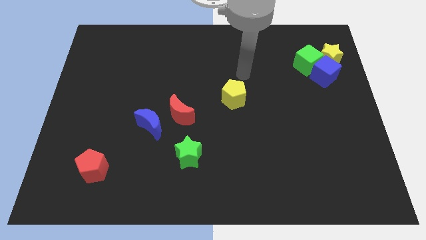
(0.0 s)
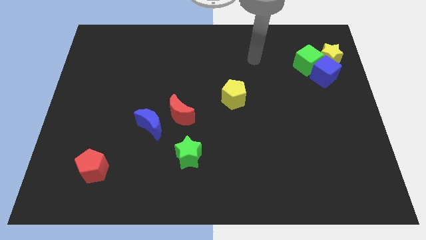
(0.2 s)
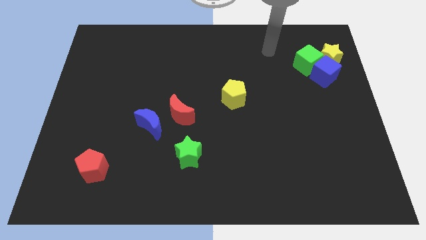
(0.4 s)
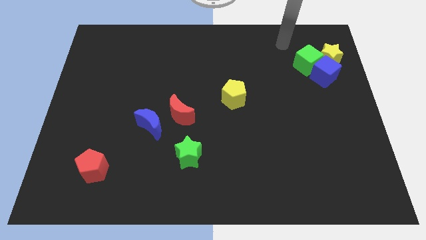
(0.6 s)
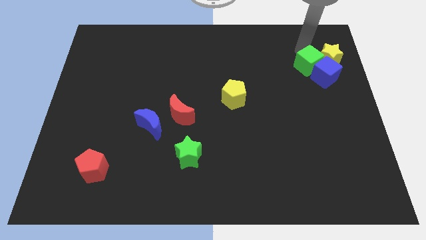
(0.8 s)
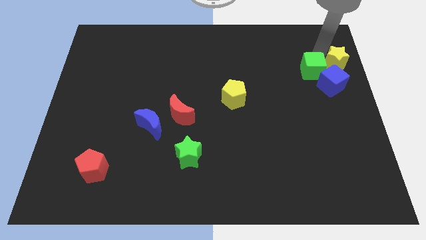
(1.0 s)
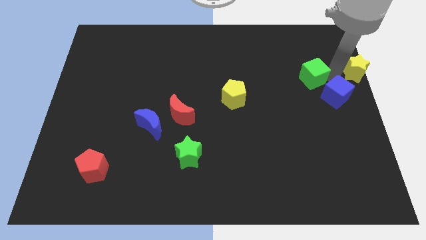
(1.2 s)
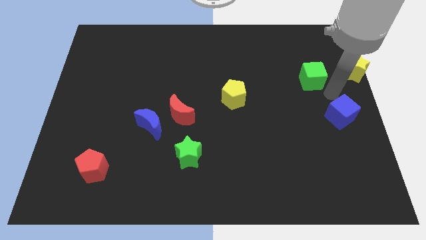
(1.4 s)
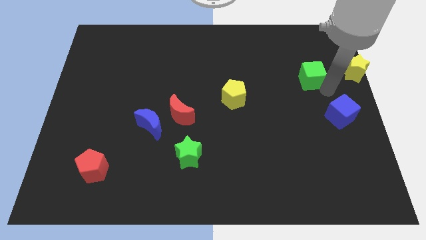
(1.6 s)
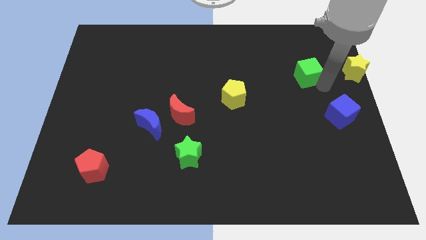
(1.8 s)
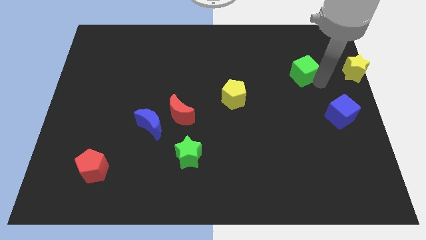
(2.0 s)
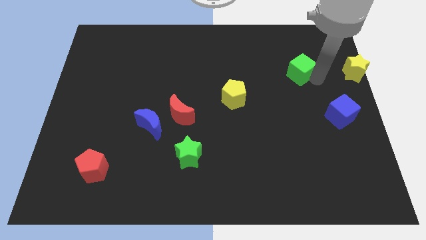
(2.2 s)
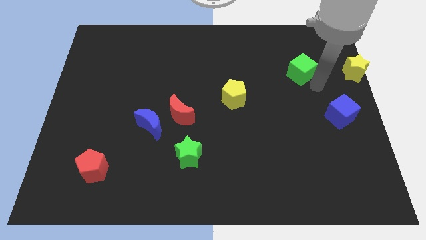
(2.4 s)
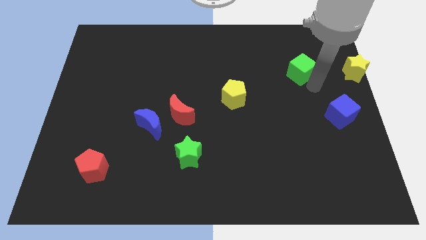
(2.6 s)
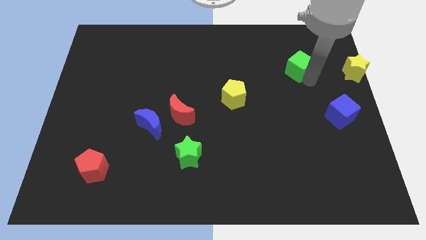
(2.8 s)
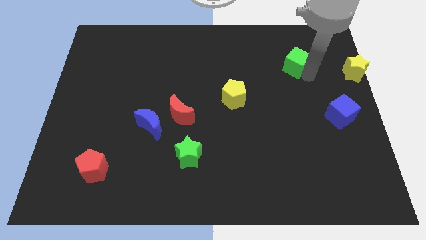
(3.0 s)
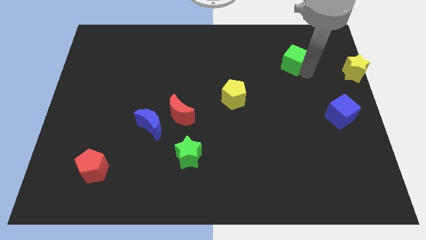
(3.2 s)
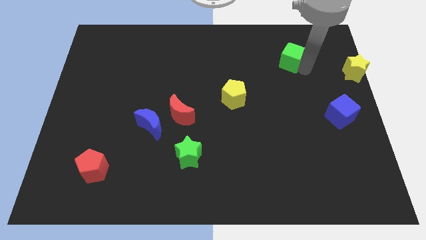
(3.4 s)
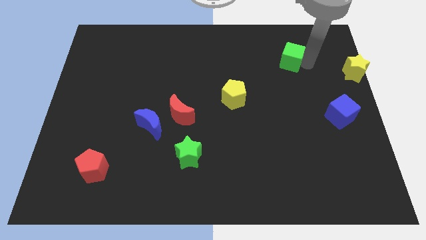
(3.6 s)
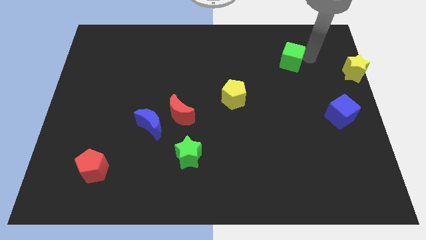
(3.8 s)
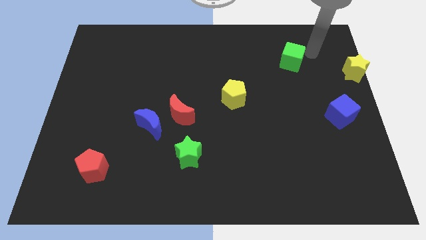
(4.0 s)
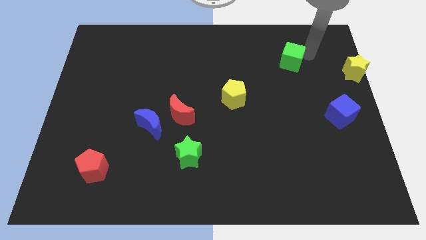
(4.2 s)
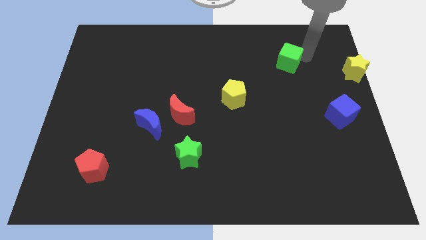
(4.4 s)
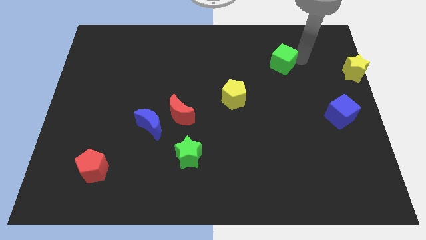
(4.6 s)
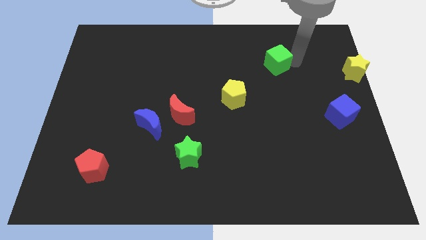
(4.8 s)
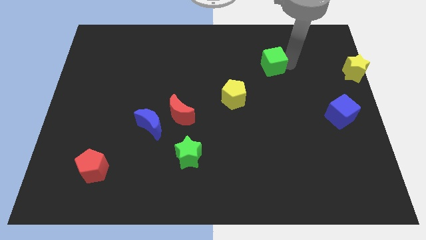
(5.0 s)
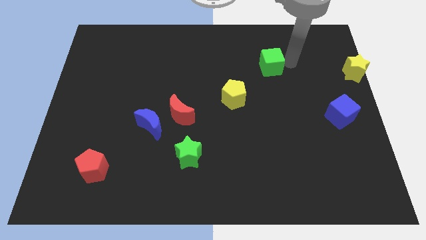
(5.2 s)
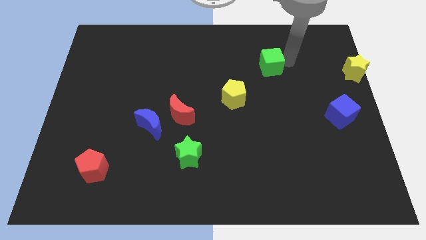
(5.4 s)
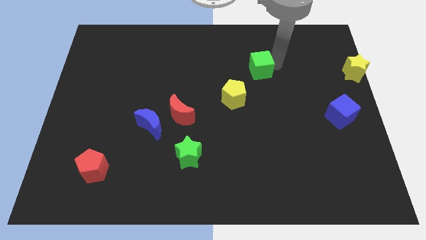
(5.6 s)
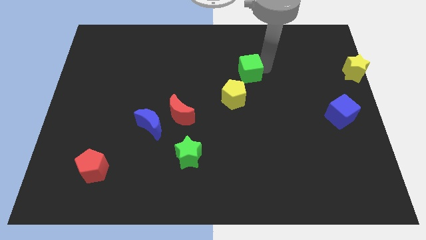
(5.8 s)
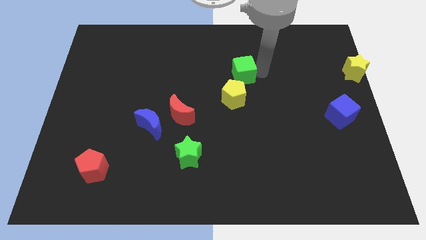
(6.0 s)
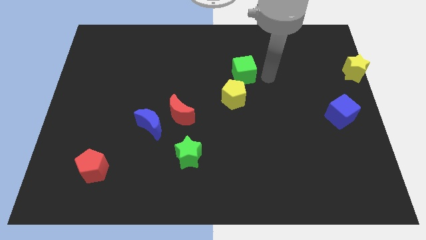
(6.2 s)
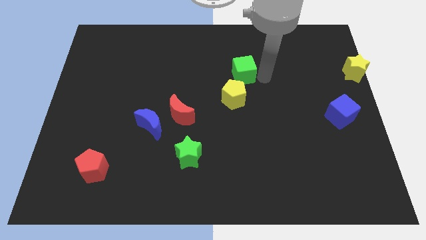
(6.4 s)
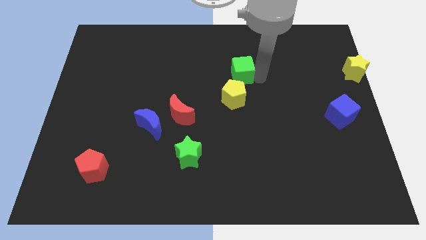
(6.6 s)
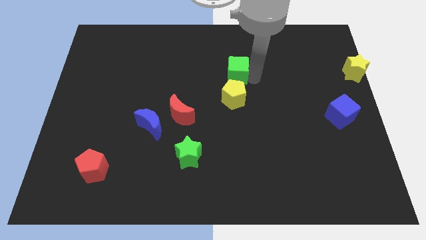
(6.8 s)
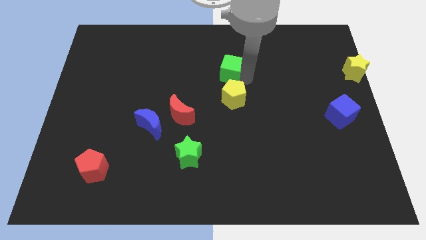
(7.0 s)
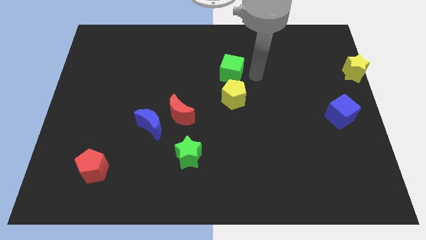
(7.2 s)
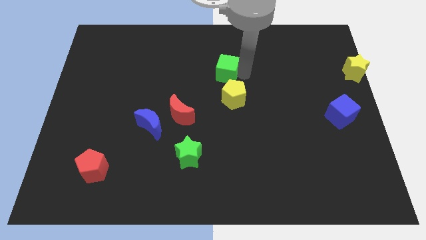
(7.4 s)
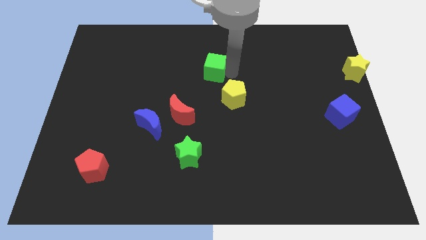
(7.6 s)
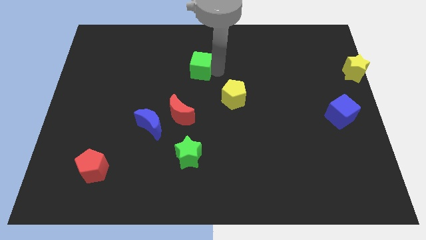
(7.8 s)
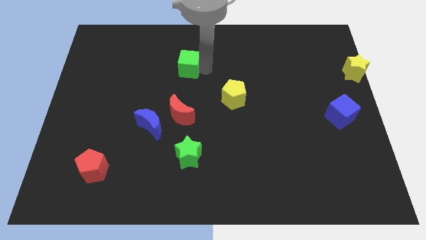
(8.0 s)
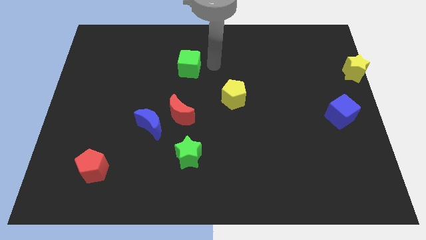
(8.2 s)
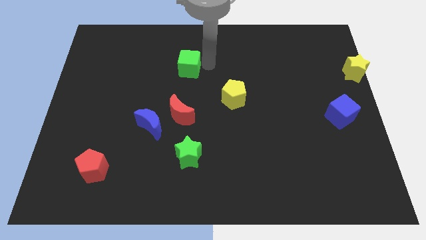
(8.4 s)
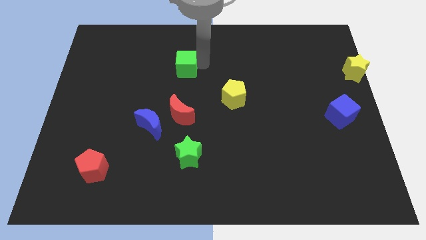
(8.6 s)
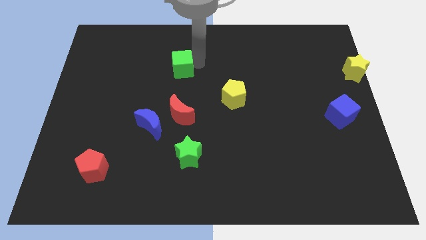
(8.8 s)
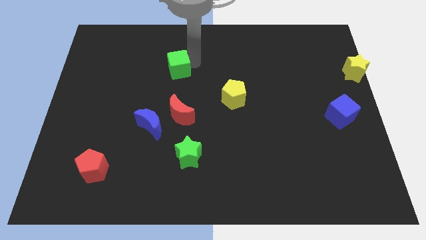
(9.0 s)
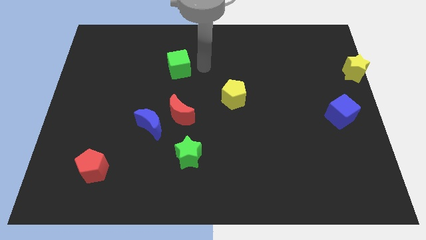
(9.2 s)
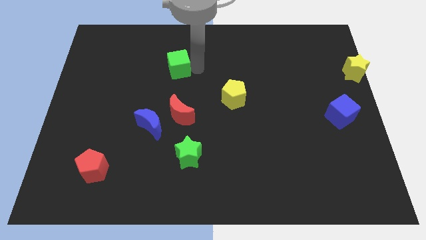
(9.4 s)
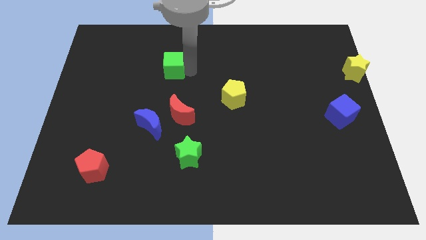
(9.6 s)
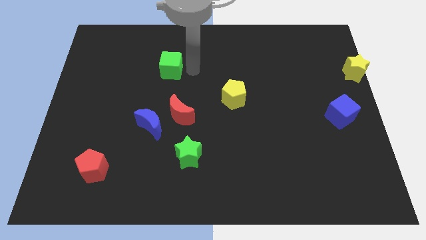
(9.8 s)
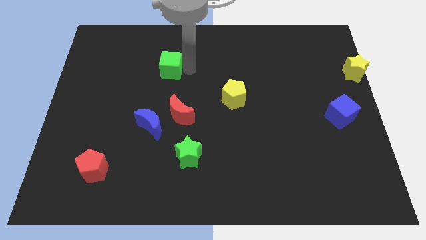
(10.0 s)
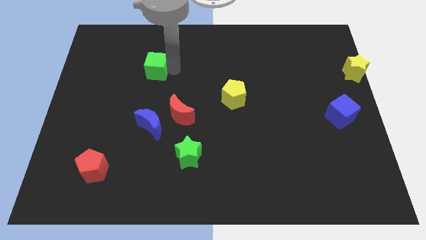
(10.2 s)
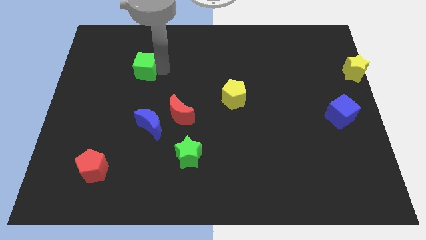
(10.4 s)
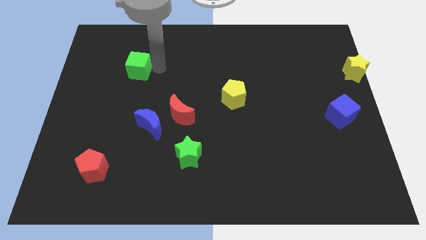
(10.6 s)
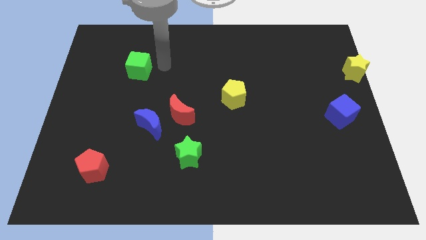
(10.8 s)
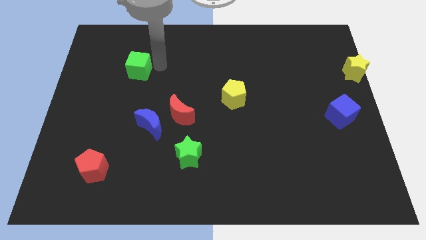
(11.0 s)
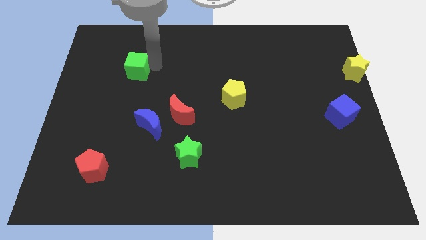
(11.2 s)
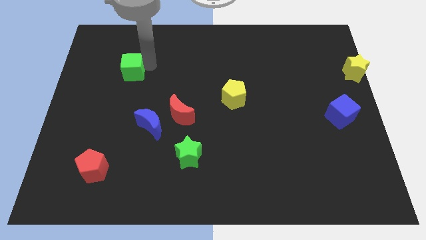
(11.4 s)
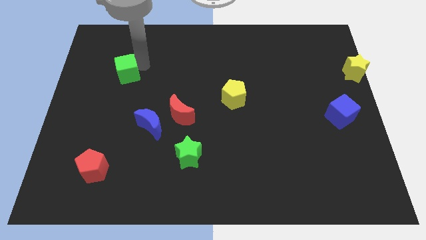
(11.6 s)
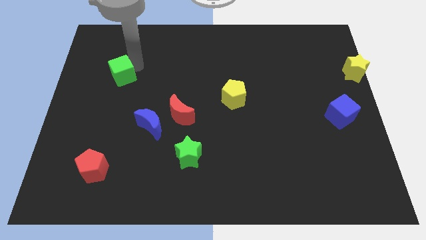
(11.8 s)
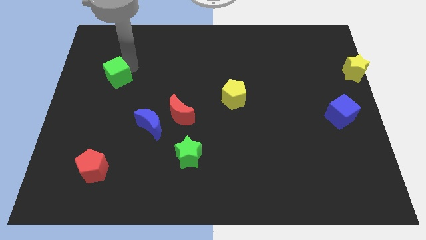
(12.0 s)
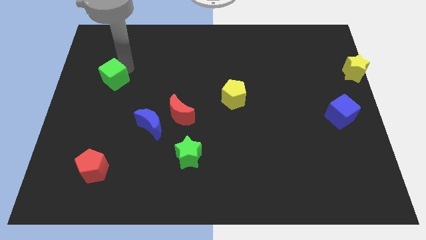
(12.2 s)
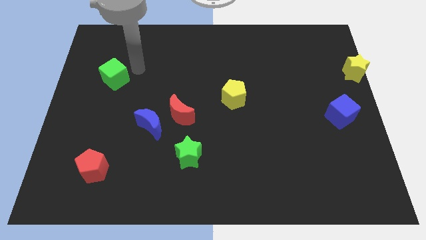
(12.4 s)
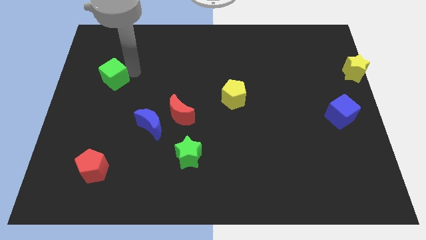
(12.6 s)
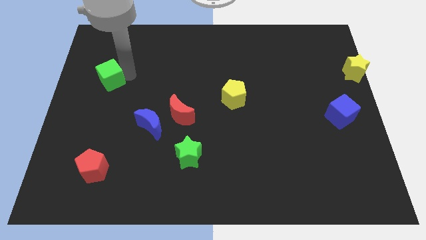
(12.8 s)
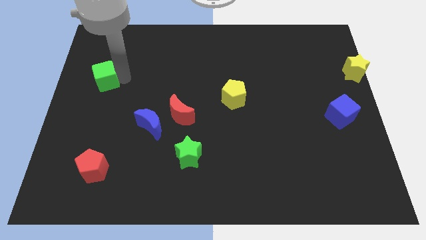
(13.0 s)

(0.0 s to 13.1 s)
push the green cube to the left side of the board
